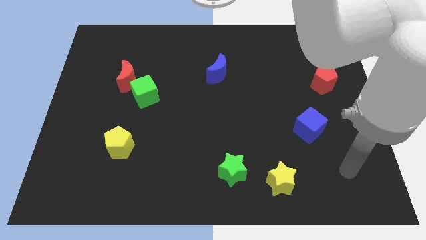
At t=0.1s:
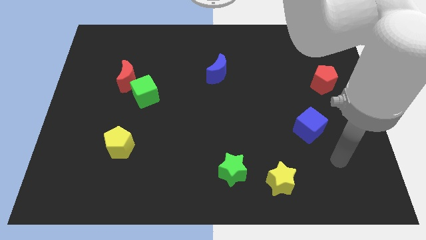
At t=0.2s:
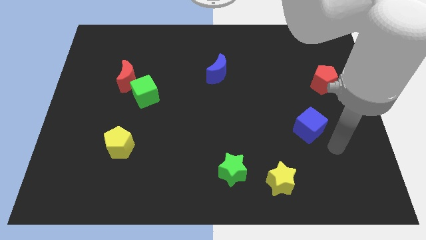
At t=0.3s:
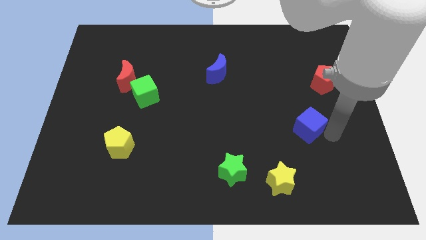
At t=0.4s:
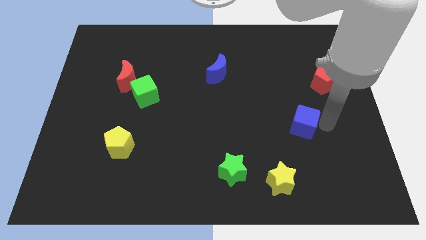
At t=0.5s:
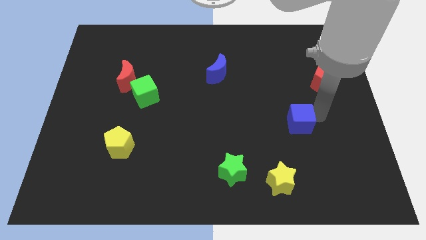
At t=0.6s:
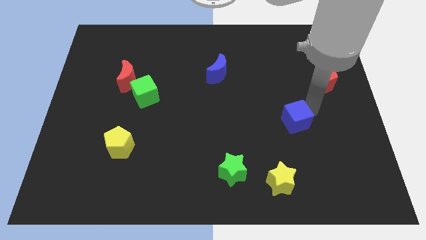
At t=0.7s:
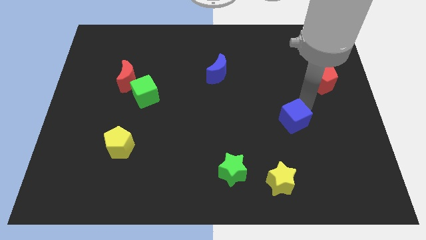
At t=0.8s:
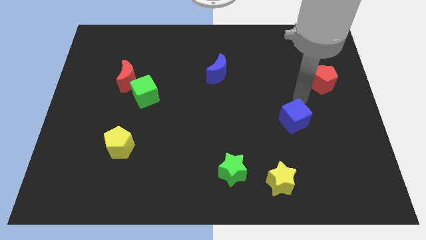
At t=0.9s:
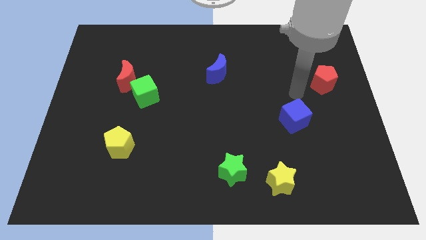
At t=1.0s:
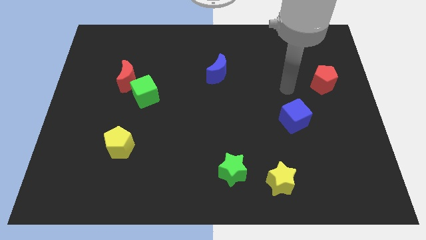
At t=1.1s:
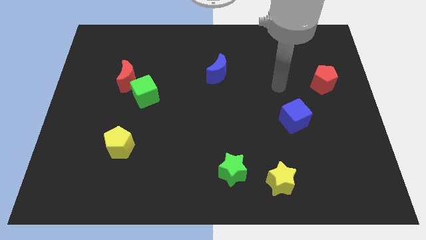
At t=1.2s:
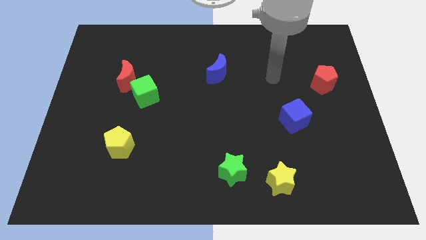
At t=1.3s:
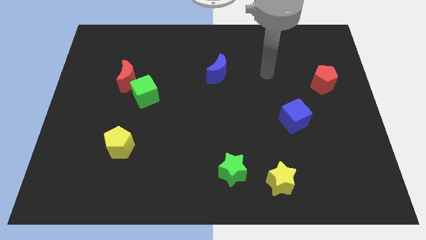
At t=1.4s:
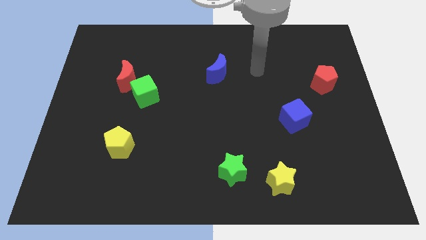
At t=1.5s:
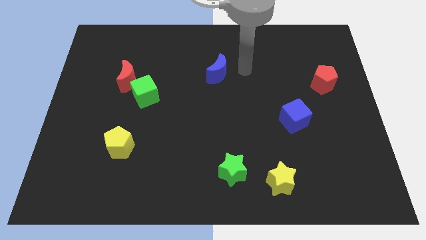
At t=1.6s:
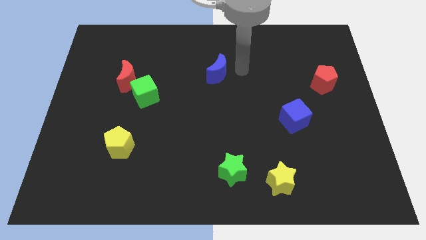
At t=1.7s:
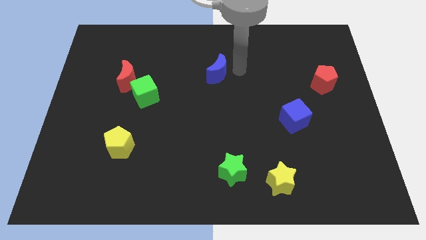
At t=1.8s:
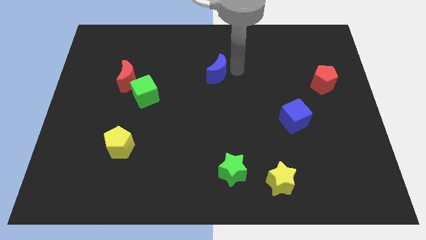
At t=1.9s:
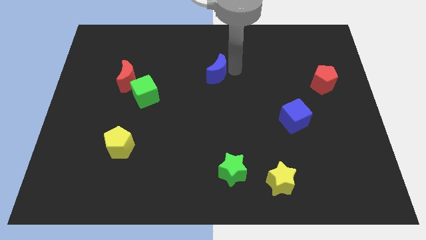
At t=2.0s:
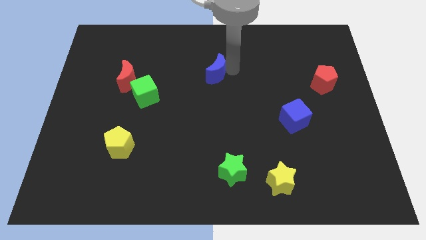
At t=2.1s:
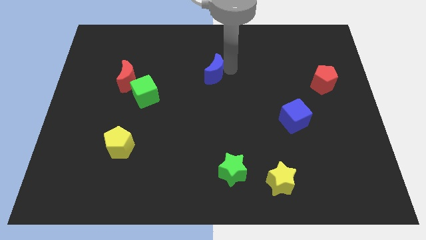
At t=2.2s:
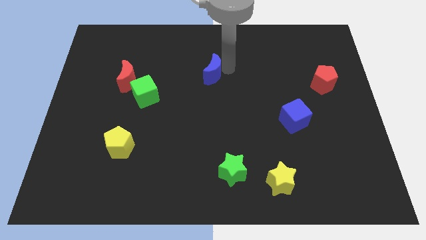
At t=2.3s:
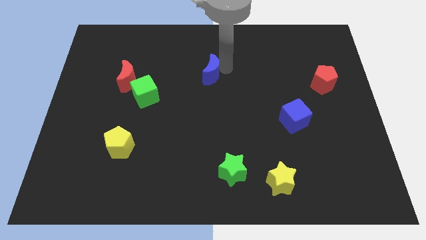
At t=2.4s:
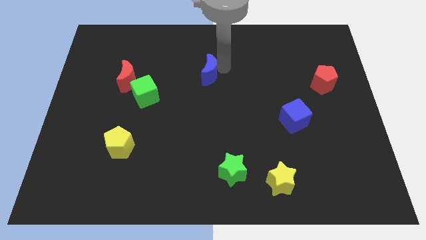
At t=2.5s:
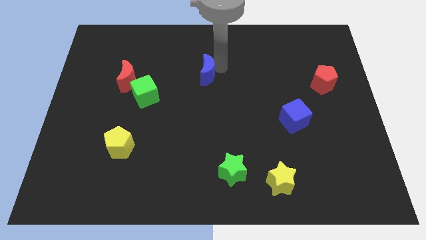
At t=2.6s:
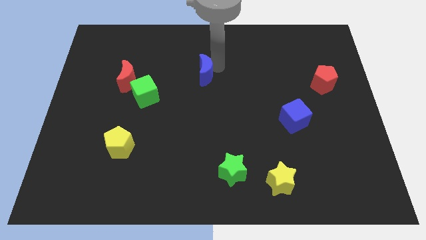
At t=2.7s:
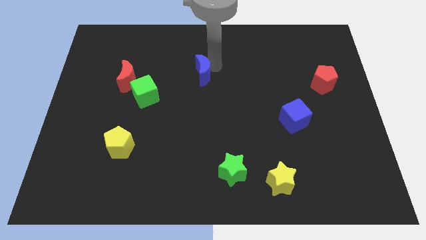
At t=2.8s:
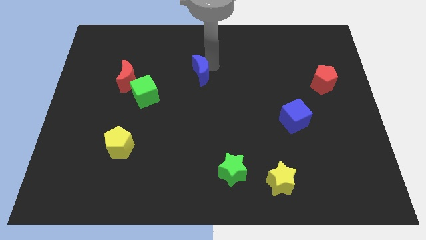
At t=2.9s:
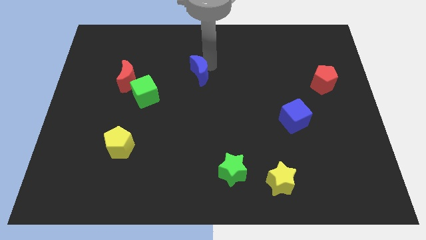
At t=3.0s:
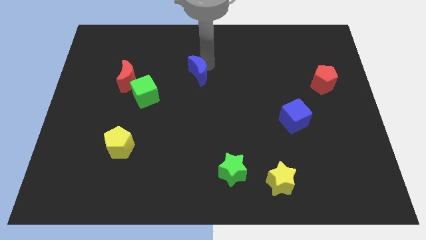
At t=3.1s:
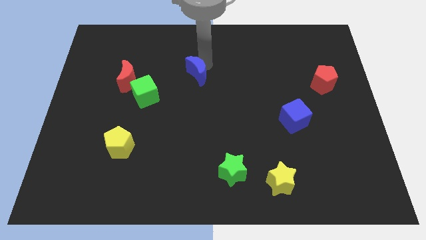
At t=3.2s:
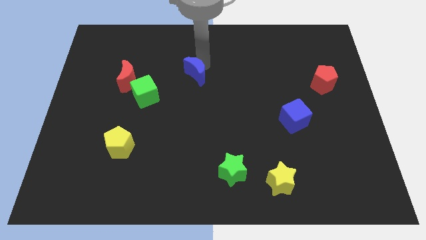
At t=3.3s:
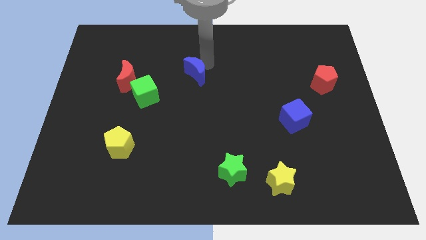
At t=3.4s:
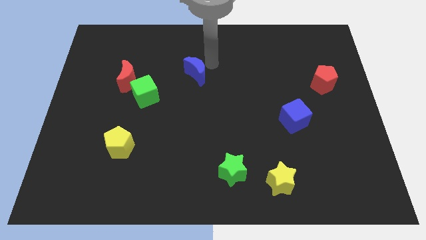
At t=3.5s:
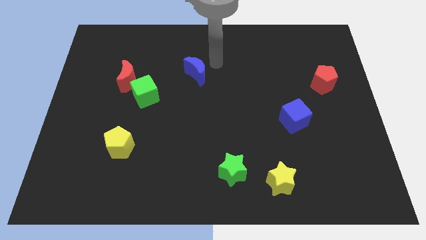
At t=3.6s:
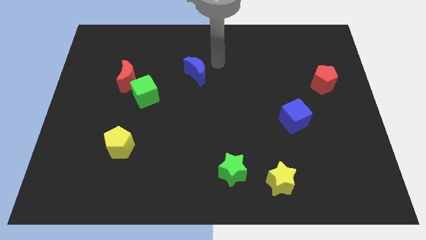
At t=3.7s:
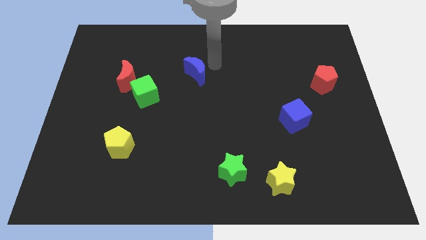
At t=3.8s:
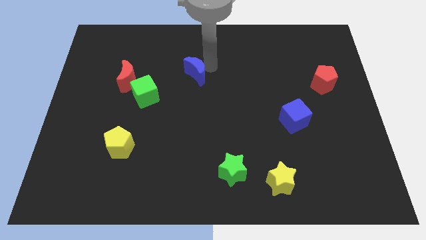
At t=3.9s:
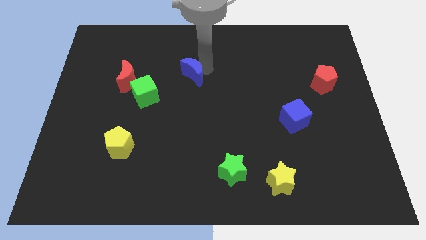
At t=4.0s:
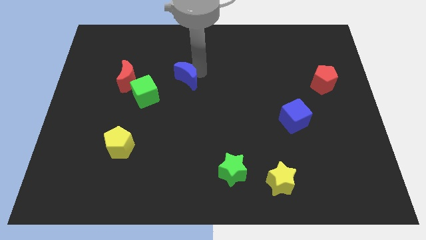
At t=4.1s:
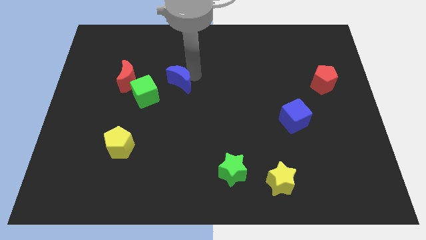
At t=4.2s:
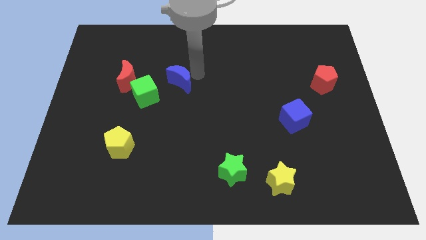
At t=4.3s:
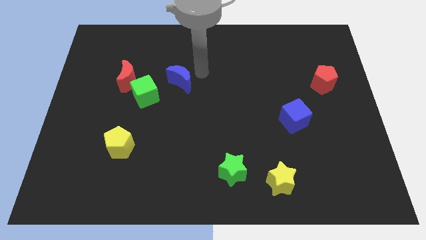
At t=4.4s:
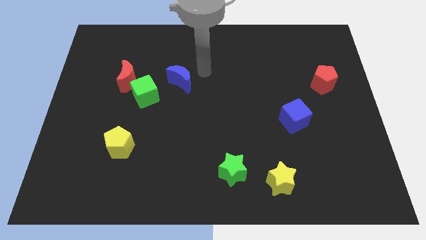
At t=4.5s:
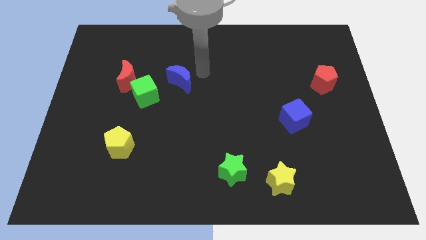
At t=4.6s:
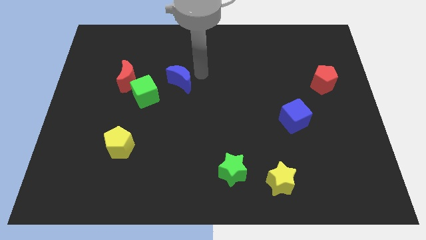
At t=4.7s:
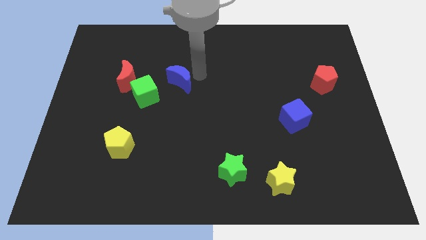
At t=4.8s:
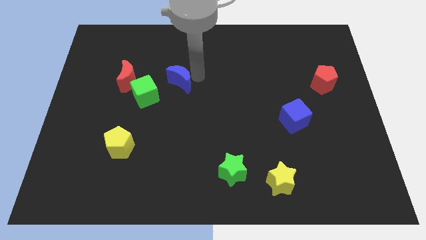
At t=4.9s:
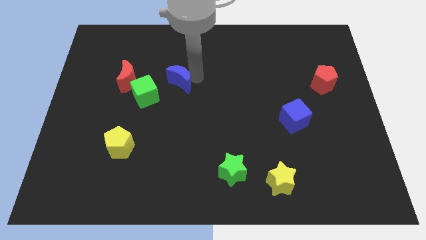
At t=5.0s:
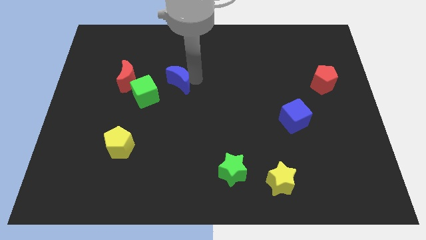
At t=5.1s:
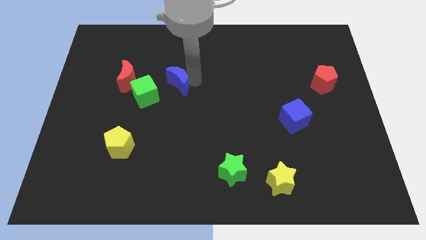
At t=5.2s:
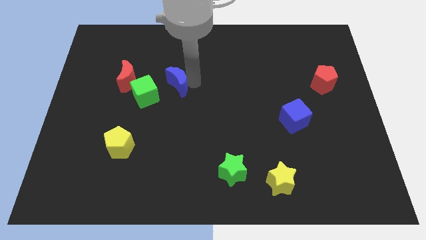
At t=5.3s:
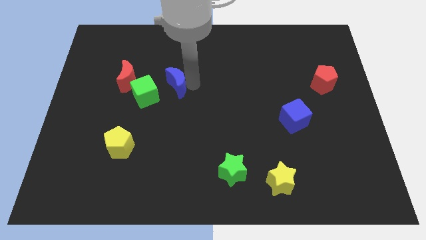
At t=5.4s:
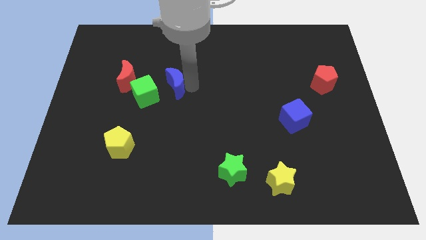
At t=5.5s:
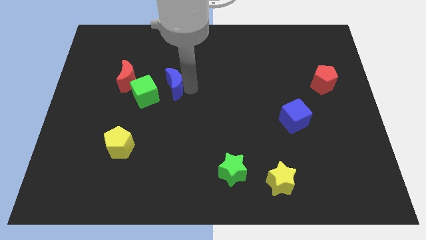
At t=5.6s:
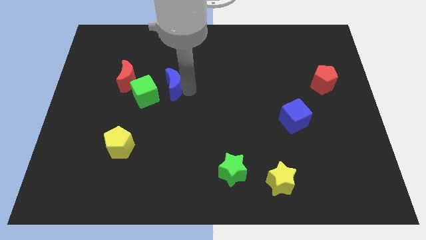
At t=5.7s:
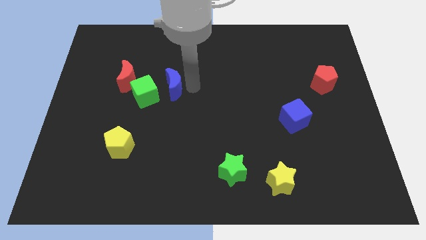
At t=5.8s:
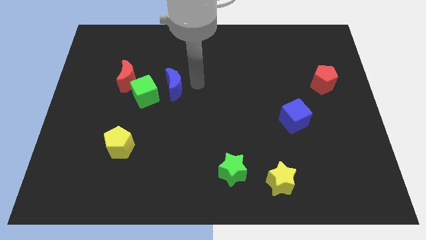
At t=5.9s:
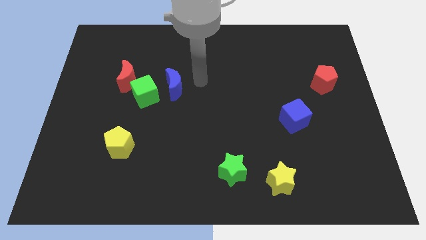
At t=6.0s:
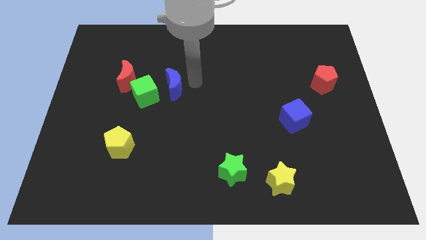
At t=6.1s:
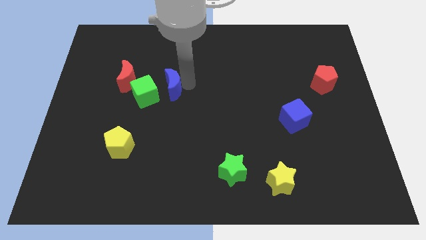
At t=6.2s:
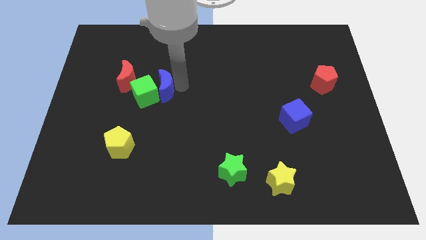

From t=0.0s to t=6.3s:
move the blue moon to the green cube

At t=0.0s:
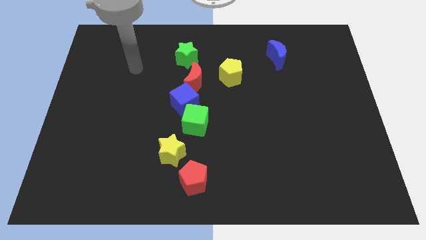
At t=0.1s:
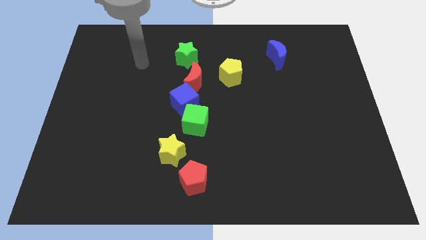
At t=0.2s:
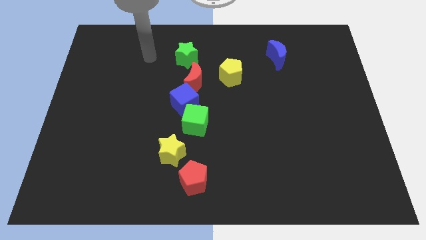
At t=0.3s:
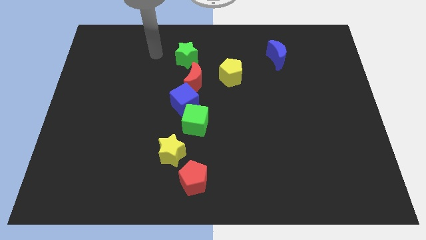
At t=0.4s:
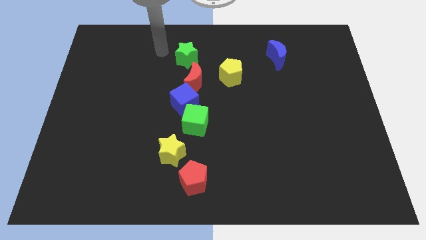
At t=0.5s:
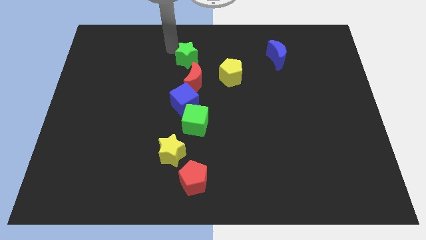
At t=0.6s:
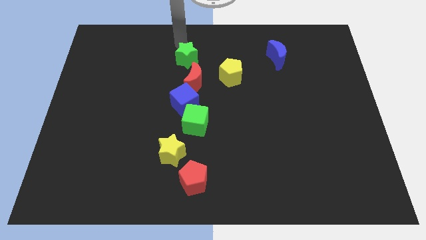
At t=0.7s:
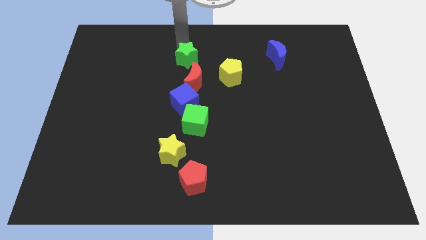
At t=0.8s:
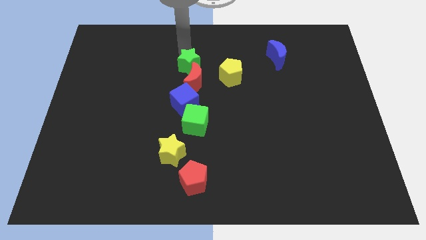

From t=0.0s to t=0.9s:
push the green star towards the red moon
